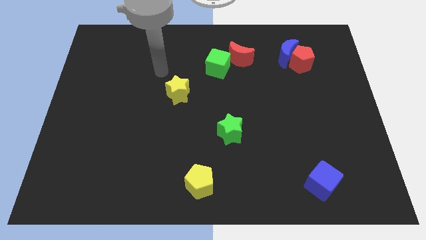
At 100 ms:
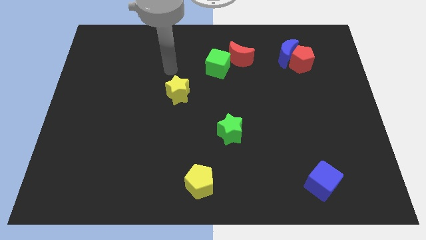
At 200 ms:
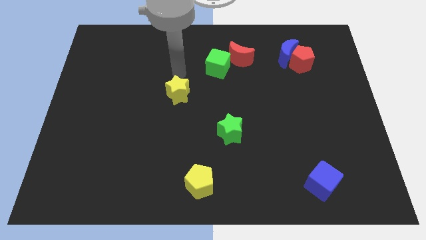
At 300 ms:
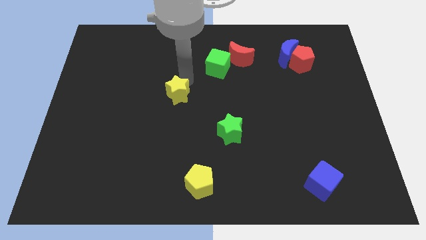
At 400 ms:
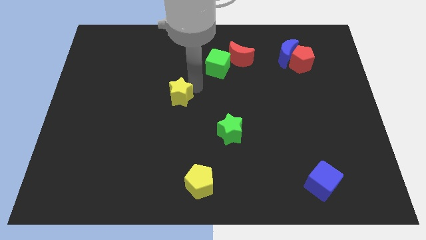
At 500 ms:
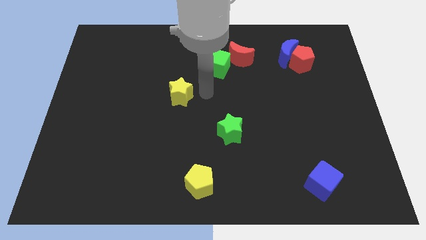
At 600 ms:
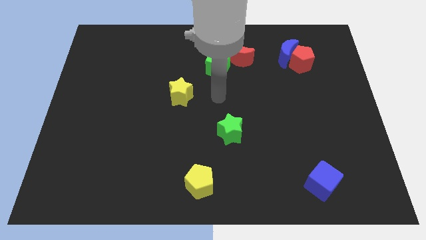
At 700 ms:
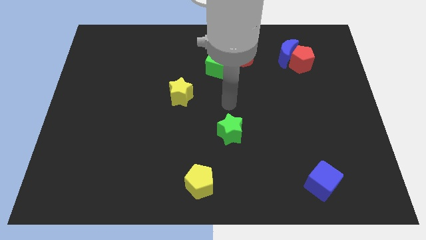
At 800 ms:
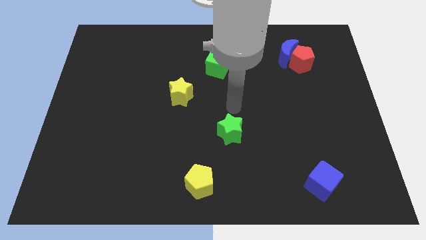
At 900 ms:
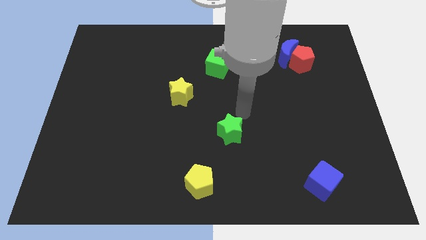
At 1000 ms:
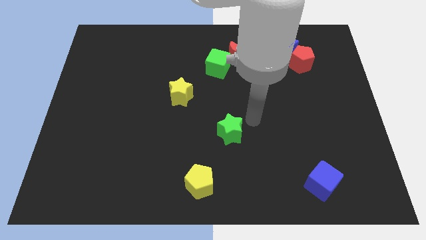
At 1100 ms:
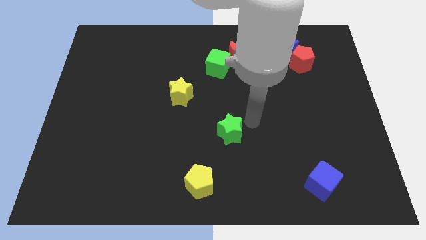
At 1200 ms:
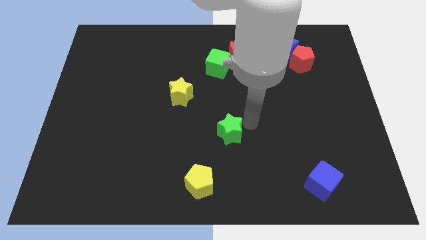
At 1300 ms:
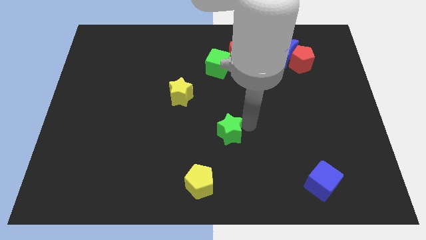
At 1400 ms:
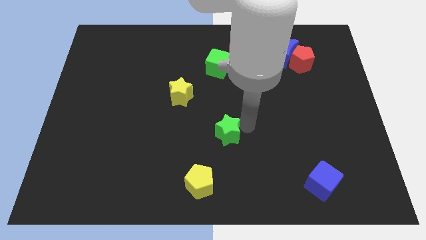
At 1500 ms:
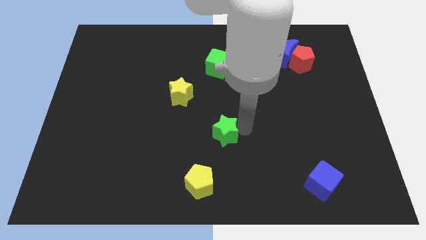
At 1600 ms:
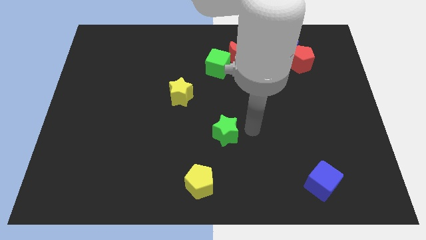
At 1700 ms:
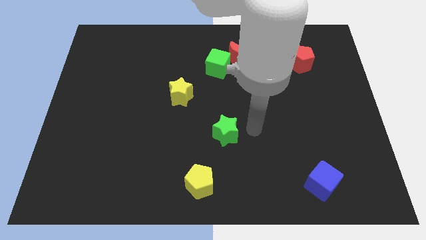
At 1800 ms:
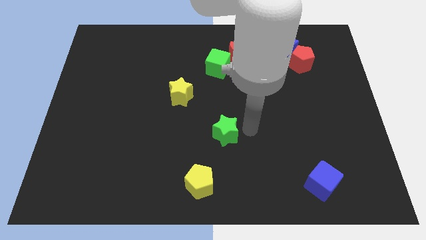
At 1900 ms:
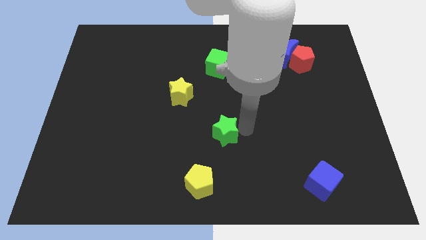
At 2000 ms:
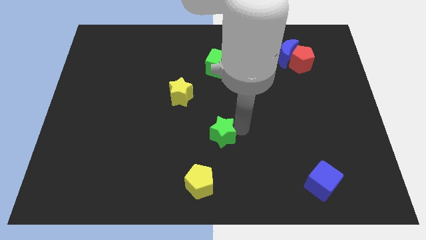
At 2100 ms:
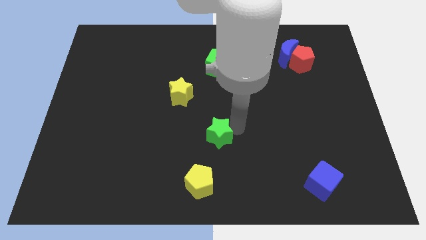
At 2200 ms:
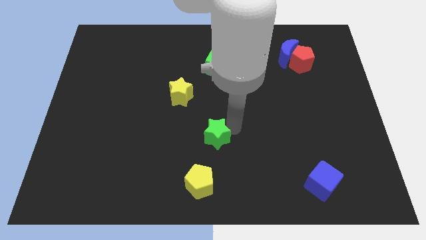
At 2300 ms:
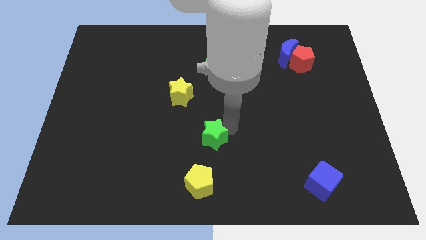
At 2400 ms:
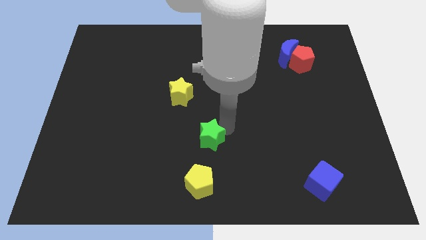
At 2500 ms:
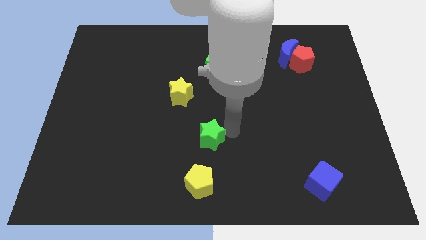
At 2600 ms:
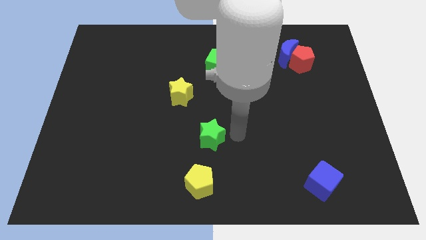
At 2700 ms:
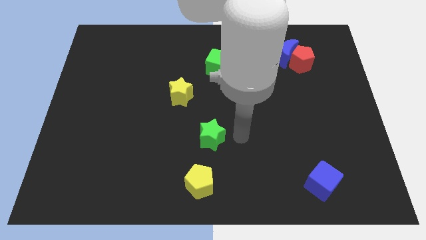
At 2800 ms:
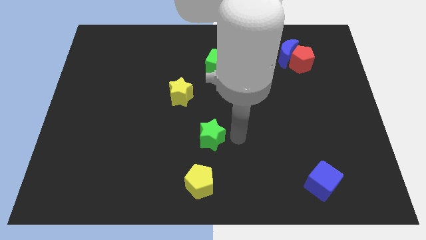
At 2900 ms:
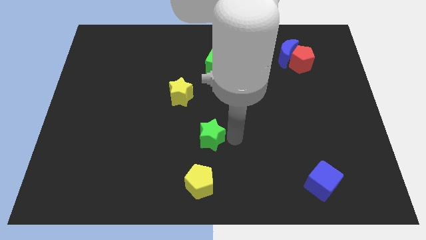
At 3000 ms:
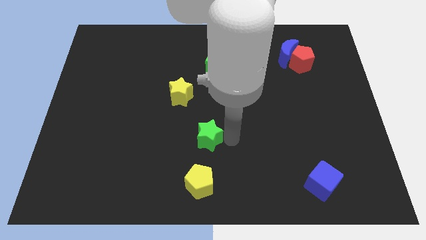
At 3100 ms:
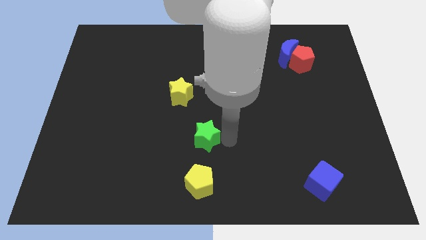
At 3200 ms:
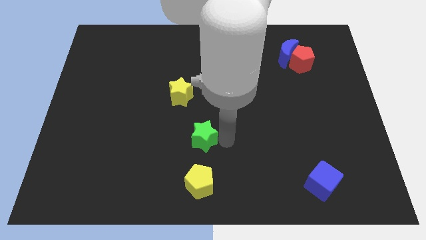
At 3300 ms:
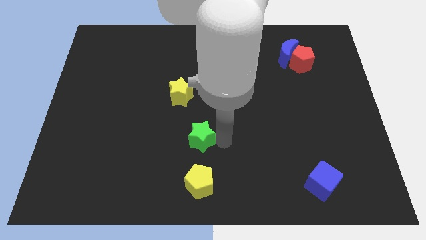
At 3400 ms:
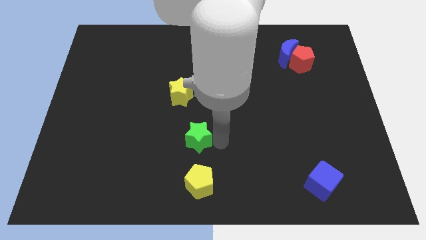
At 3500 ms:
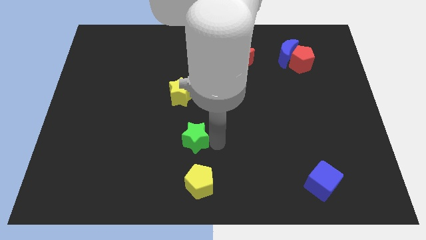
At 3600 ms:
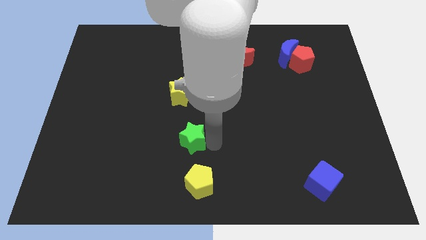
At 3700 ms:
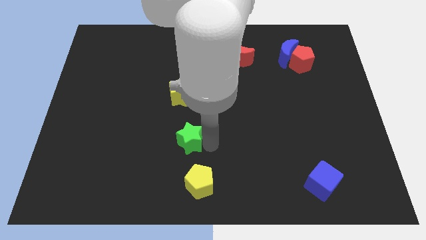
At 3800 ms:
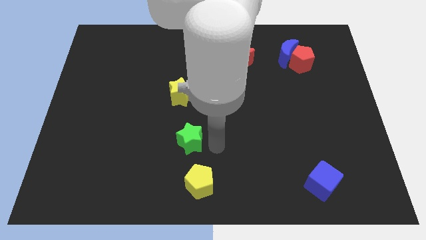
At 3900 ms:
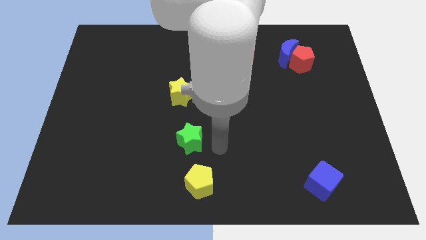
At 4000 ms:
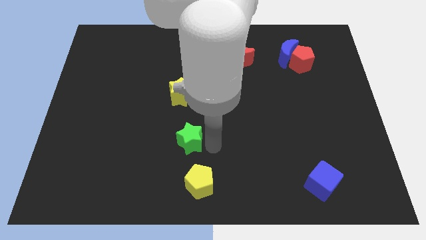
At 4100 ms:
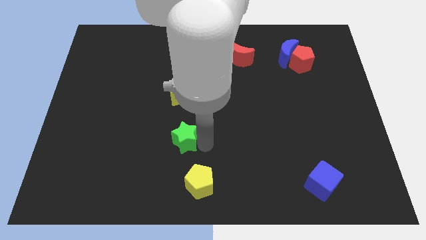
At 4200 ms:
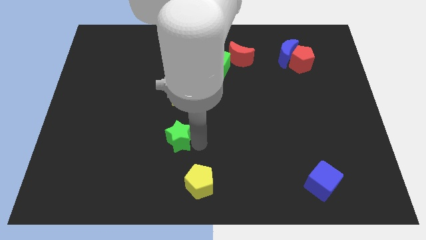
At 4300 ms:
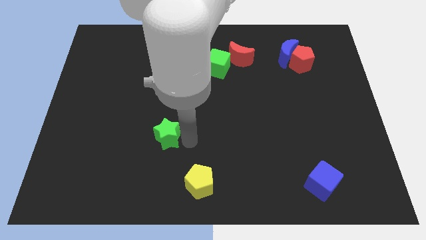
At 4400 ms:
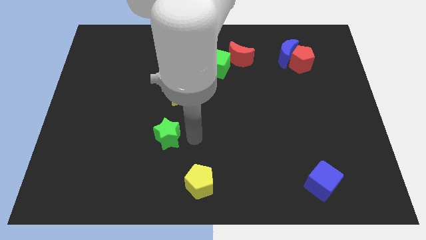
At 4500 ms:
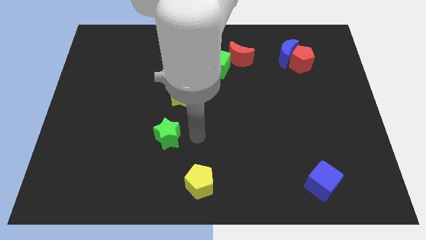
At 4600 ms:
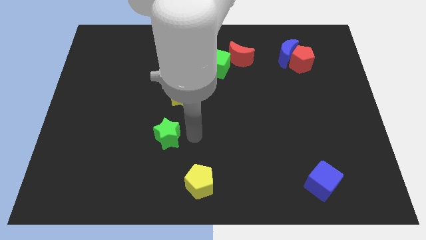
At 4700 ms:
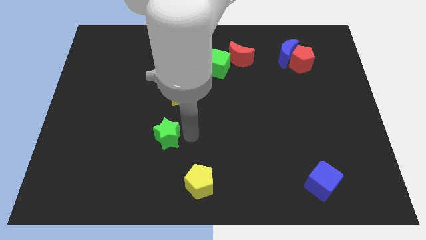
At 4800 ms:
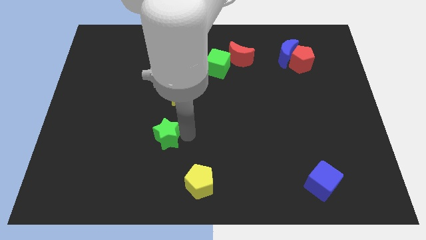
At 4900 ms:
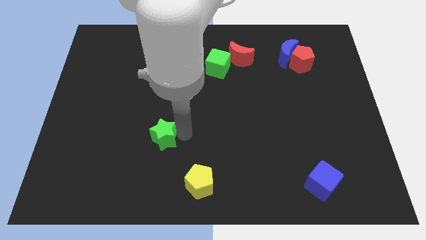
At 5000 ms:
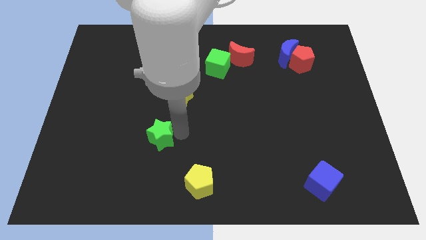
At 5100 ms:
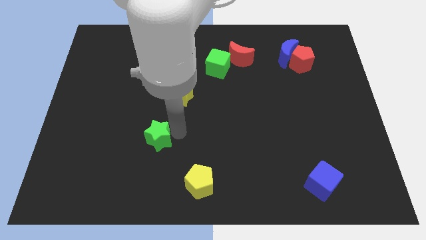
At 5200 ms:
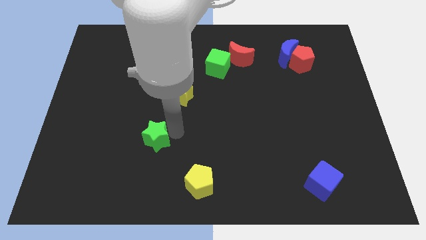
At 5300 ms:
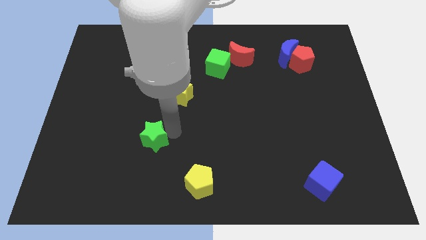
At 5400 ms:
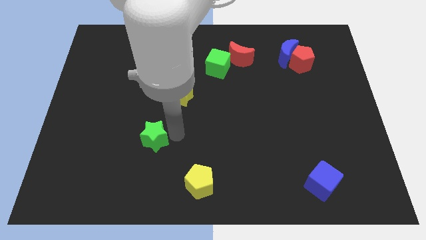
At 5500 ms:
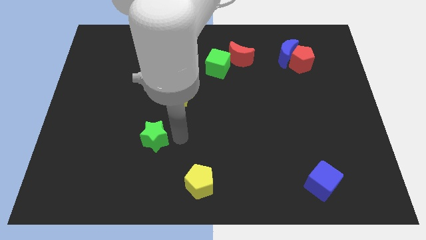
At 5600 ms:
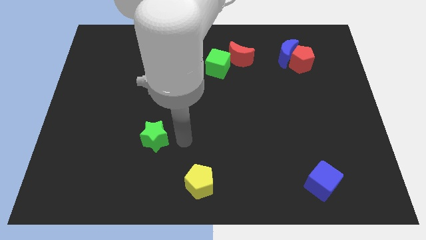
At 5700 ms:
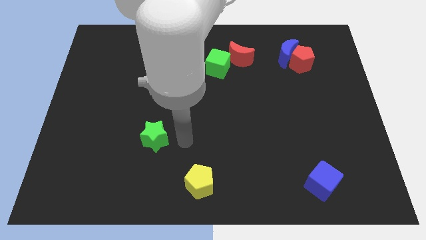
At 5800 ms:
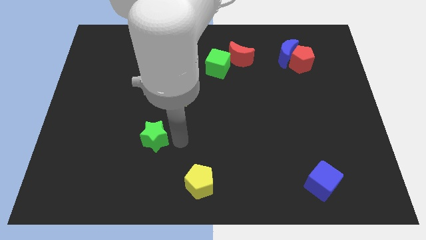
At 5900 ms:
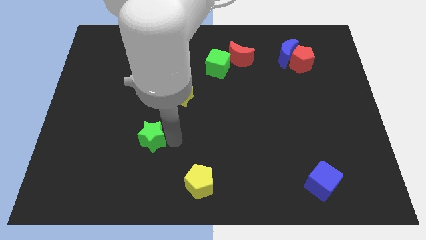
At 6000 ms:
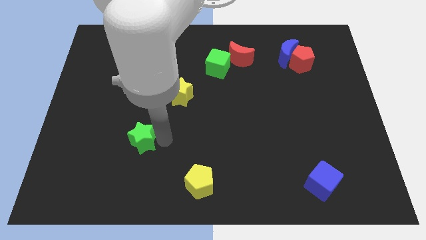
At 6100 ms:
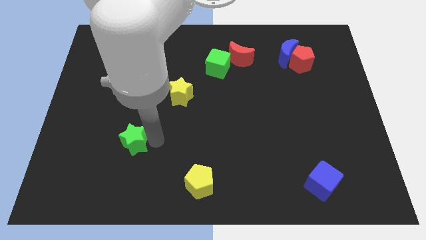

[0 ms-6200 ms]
move the green star left

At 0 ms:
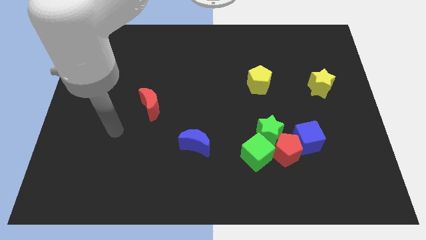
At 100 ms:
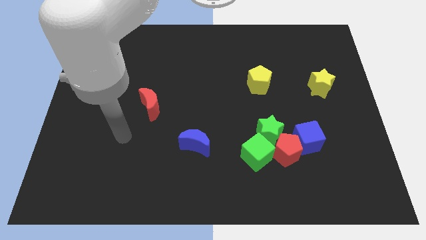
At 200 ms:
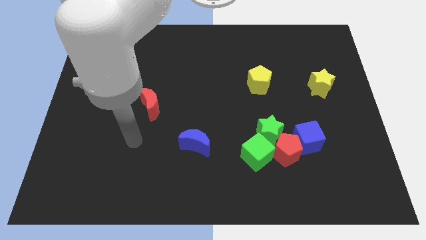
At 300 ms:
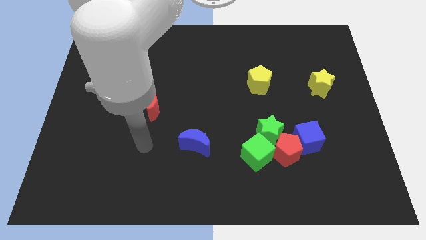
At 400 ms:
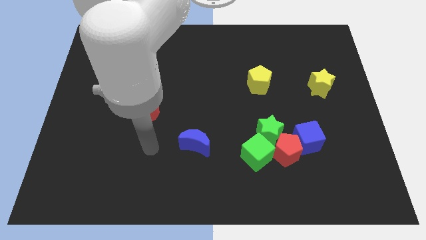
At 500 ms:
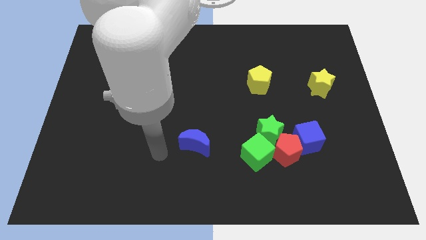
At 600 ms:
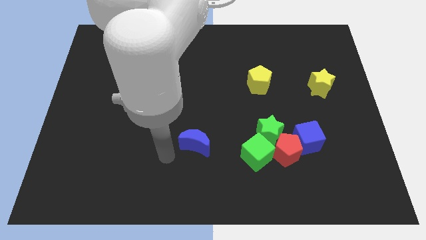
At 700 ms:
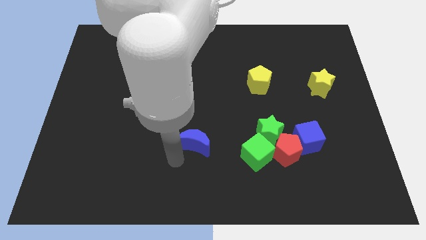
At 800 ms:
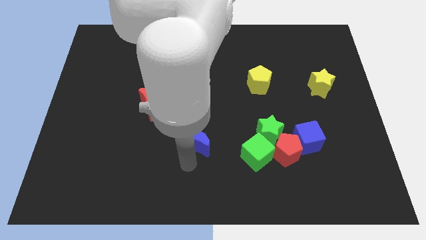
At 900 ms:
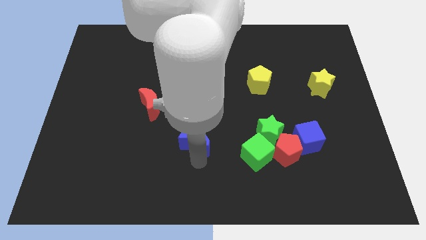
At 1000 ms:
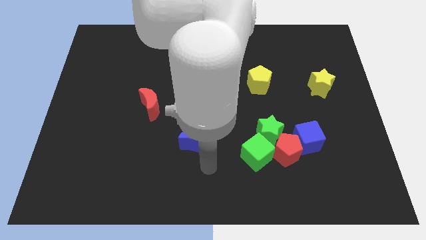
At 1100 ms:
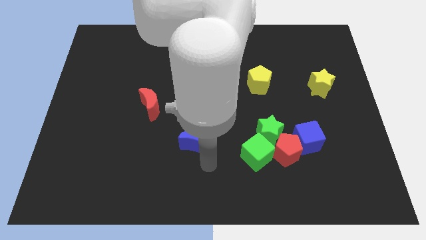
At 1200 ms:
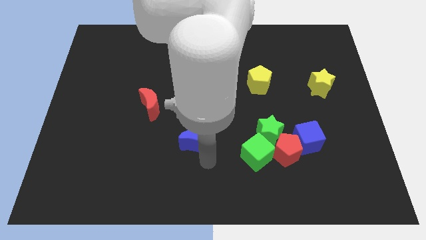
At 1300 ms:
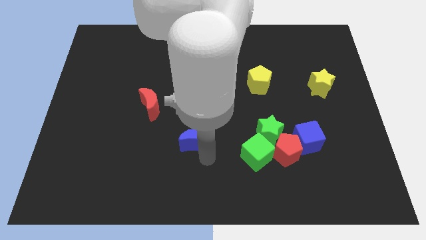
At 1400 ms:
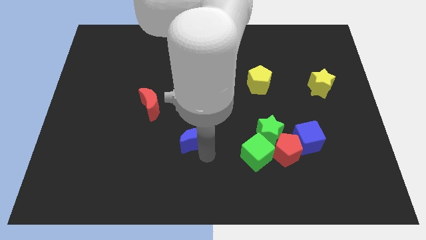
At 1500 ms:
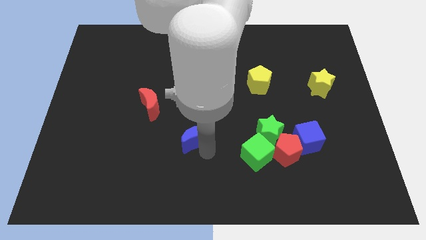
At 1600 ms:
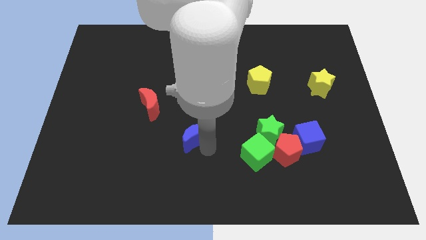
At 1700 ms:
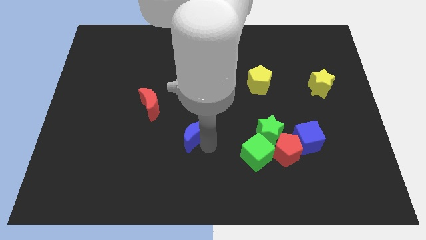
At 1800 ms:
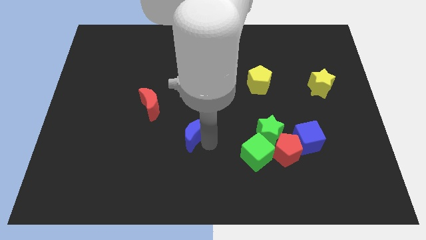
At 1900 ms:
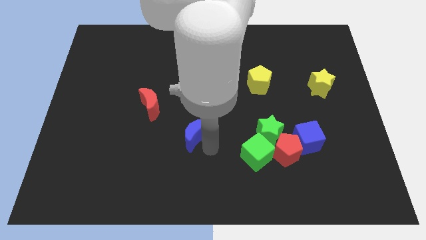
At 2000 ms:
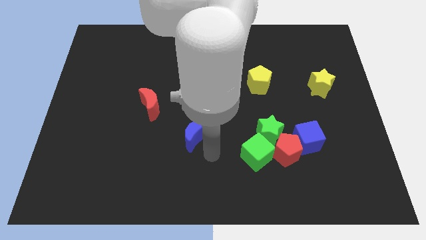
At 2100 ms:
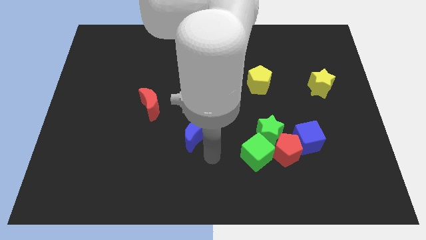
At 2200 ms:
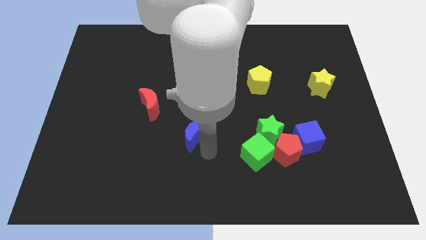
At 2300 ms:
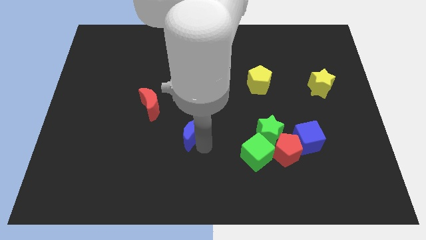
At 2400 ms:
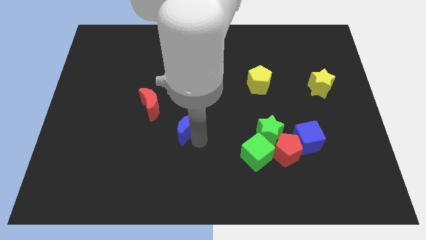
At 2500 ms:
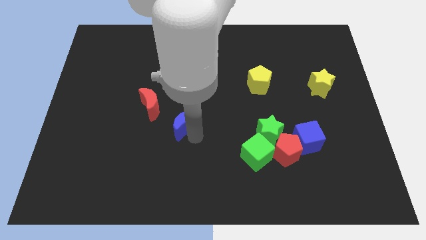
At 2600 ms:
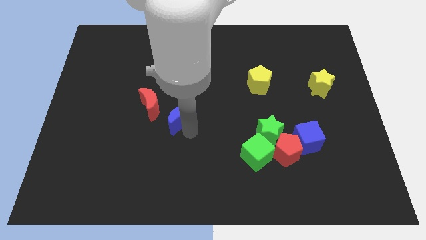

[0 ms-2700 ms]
slightly slide the blue moon upwards and then left
